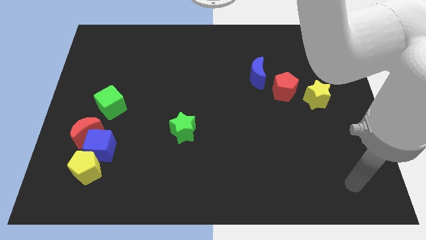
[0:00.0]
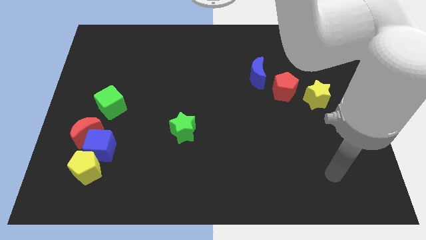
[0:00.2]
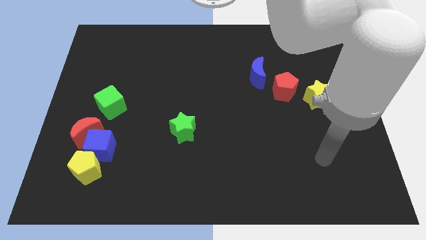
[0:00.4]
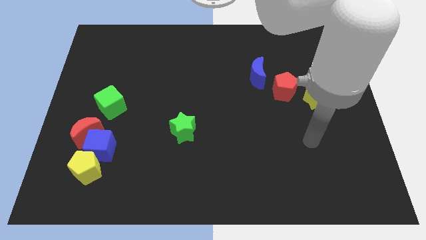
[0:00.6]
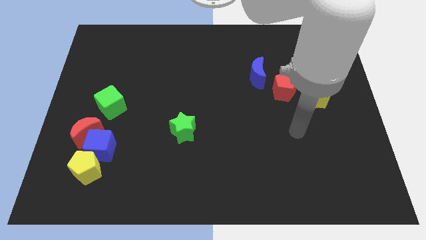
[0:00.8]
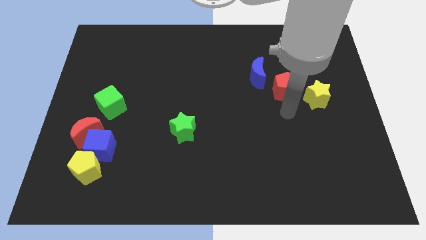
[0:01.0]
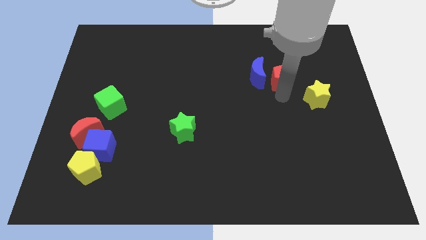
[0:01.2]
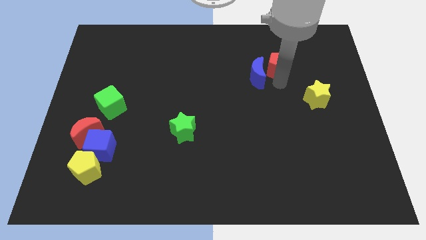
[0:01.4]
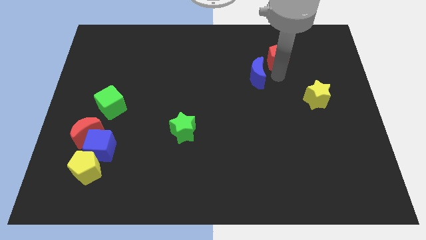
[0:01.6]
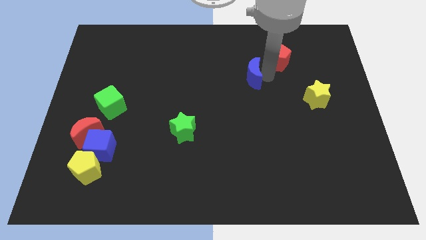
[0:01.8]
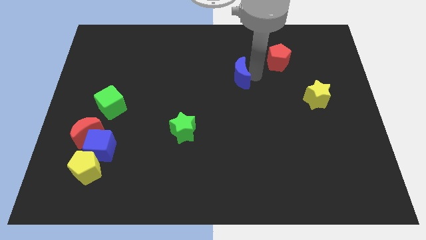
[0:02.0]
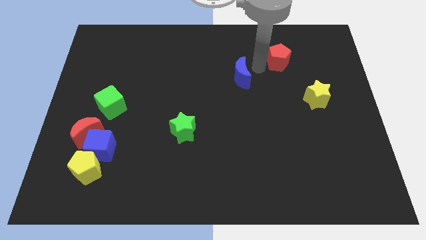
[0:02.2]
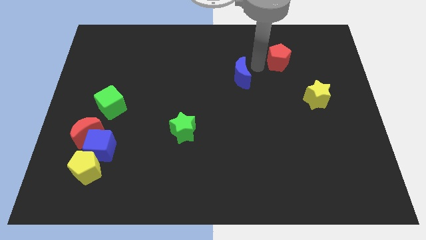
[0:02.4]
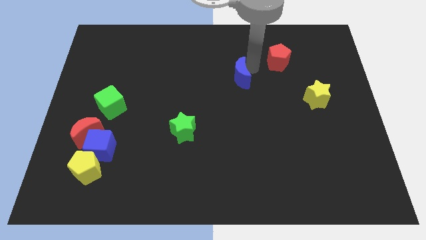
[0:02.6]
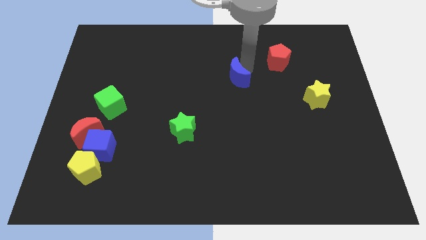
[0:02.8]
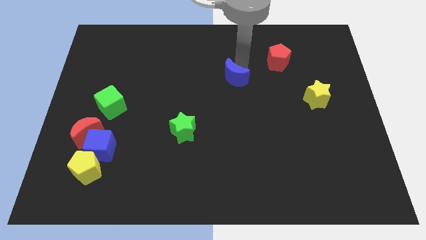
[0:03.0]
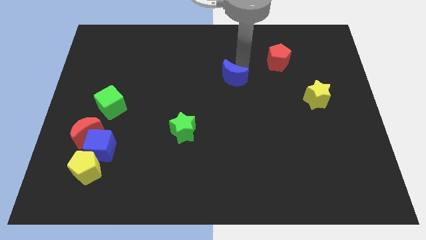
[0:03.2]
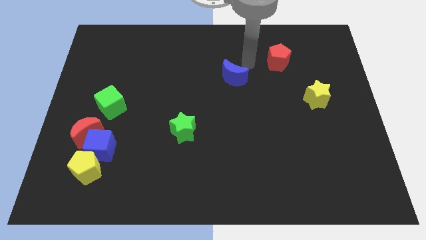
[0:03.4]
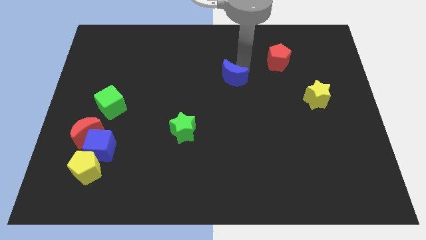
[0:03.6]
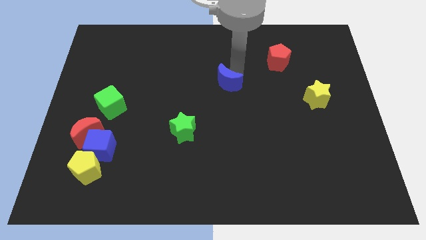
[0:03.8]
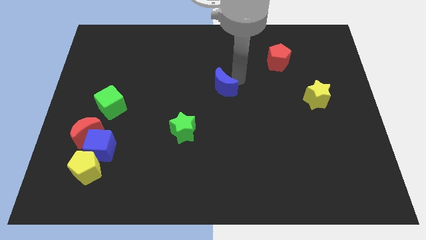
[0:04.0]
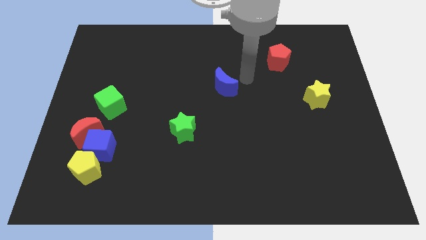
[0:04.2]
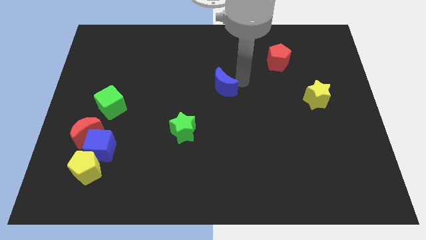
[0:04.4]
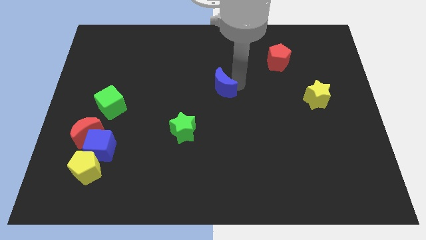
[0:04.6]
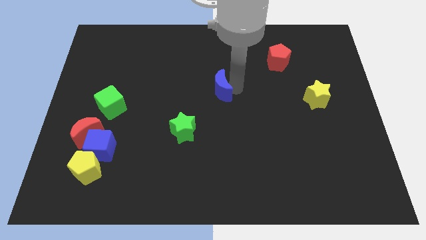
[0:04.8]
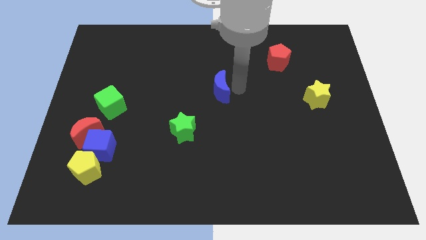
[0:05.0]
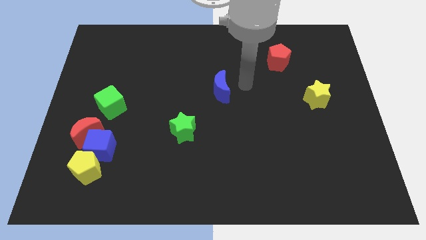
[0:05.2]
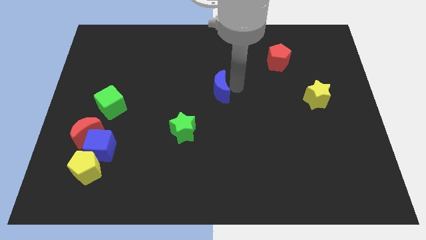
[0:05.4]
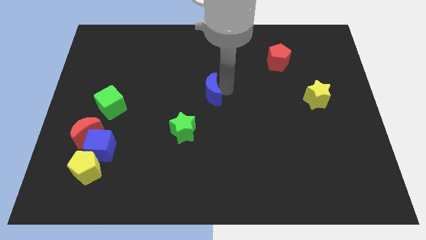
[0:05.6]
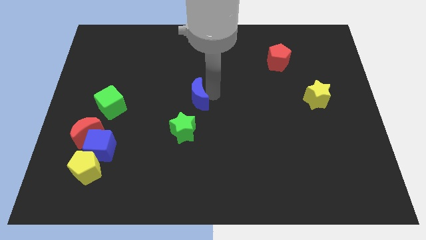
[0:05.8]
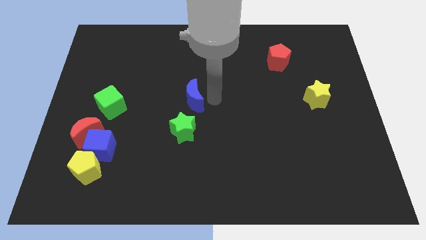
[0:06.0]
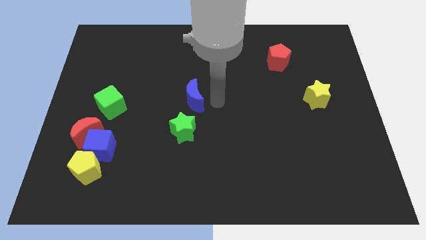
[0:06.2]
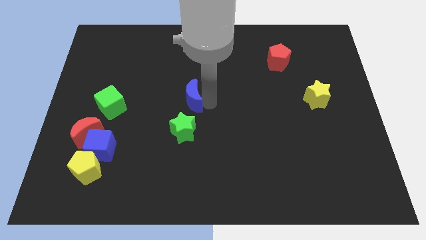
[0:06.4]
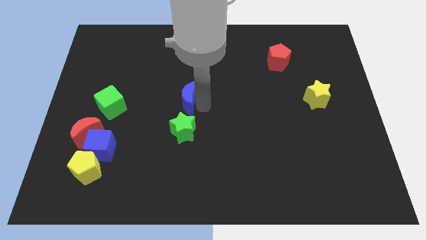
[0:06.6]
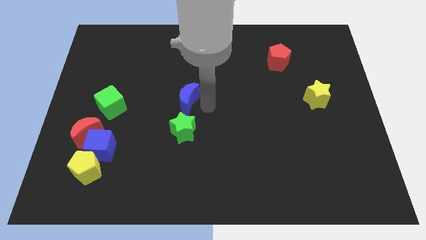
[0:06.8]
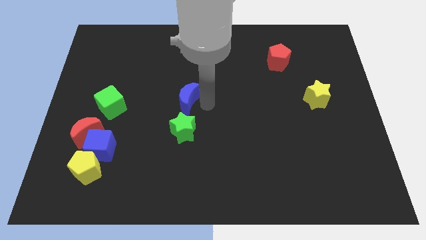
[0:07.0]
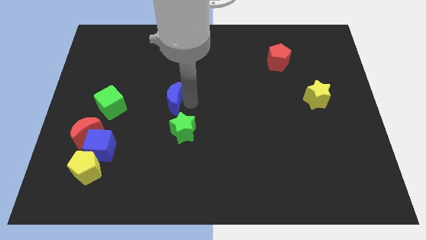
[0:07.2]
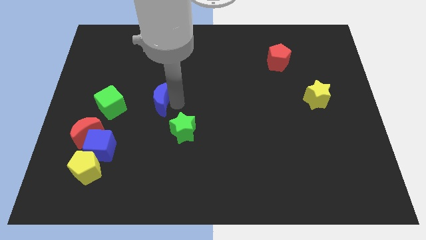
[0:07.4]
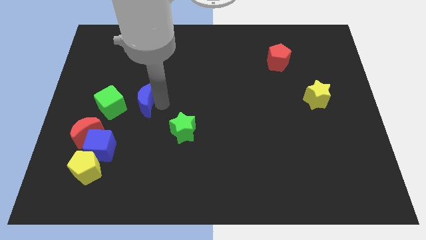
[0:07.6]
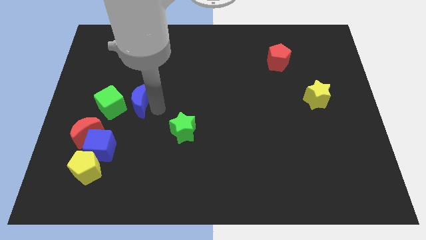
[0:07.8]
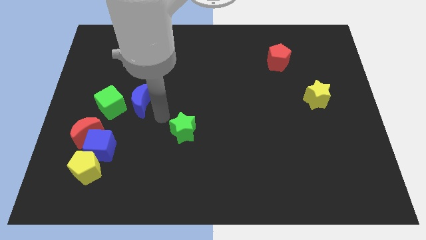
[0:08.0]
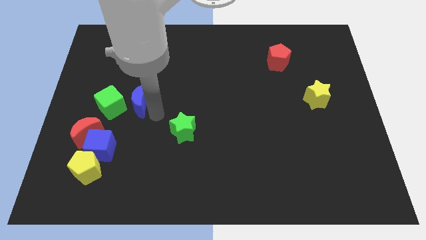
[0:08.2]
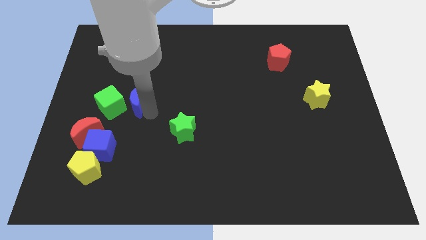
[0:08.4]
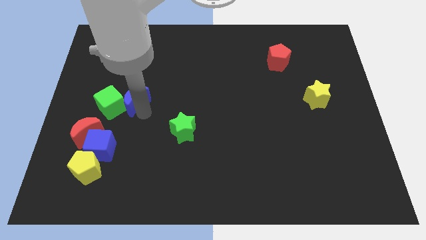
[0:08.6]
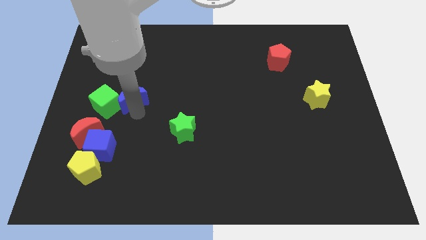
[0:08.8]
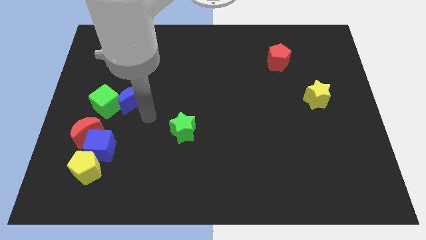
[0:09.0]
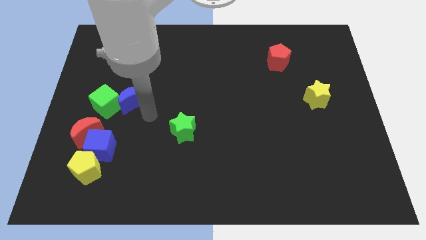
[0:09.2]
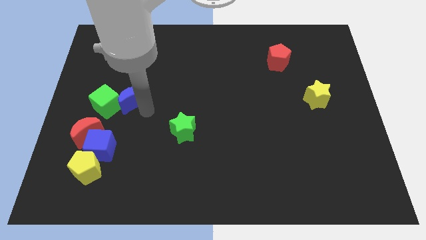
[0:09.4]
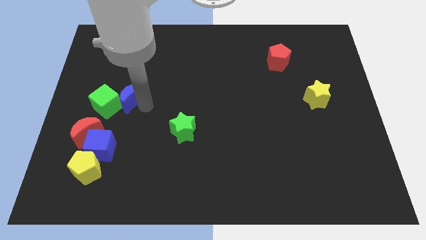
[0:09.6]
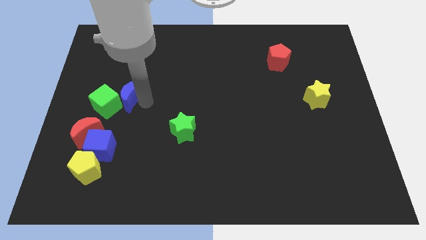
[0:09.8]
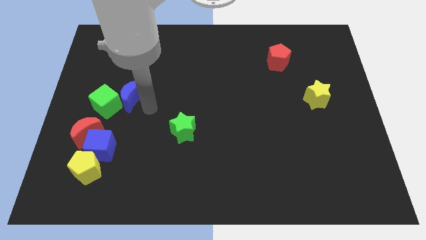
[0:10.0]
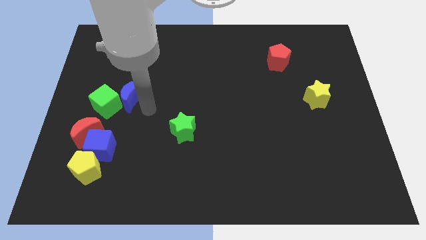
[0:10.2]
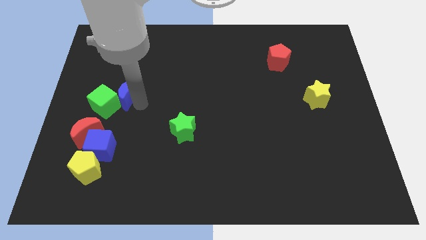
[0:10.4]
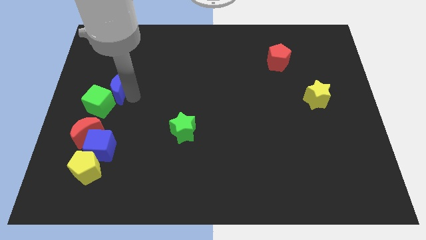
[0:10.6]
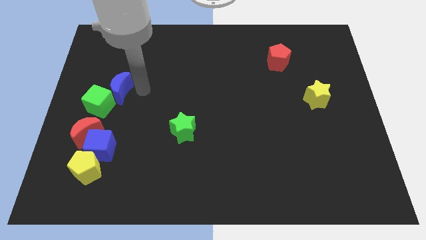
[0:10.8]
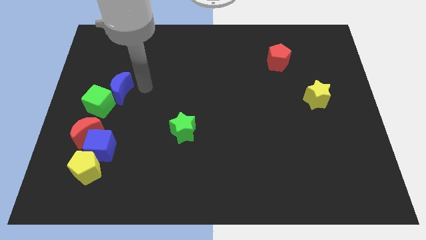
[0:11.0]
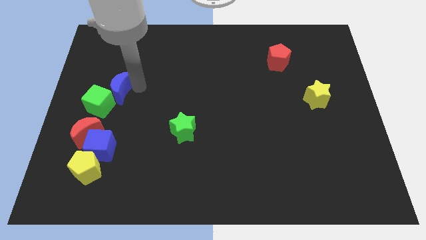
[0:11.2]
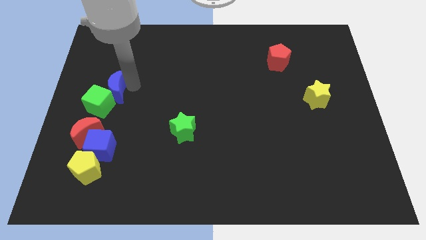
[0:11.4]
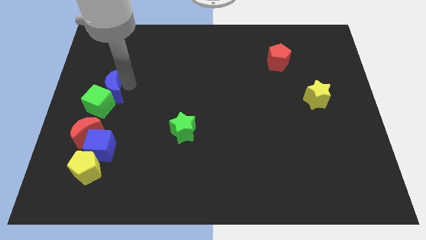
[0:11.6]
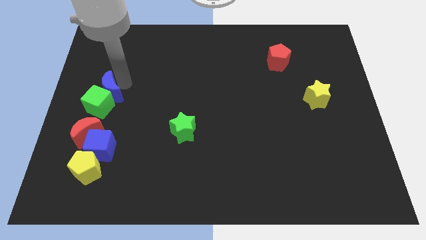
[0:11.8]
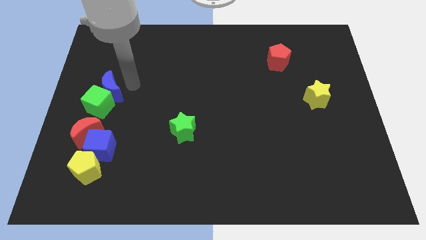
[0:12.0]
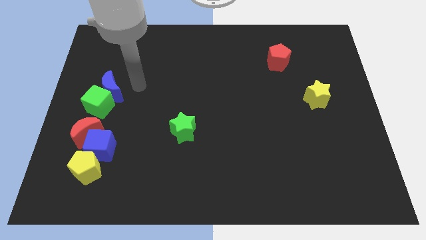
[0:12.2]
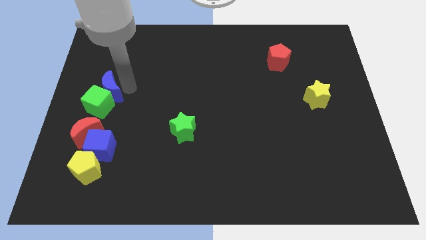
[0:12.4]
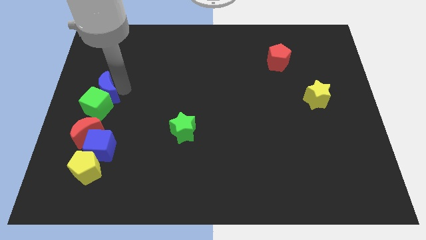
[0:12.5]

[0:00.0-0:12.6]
put the blue moon to the left side of the board
